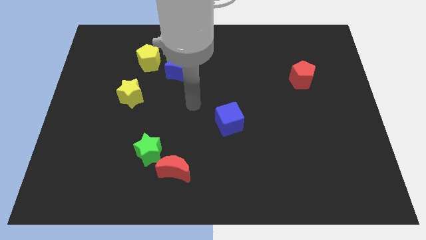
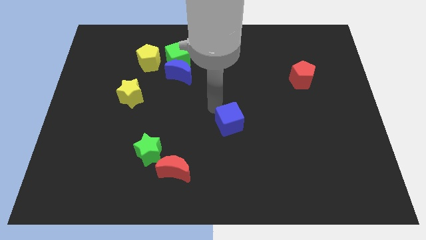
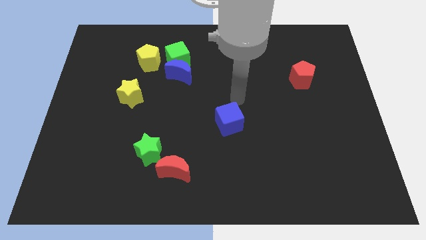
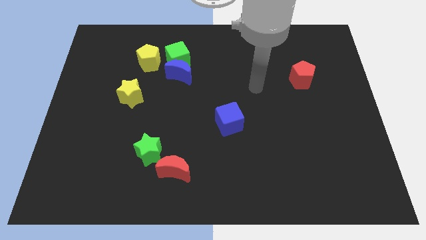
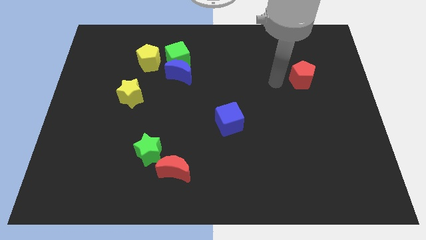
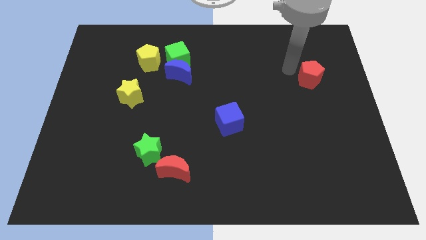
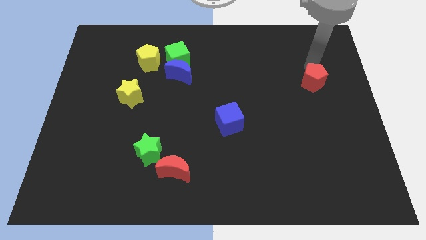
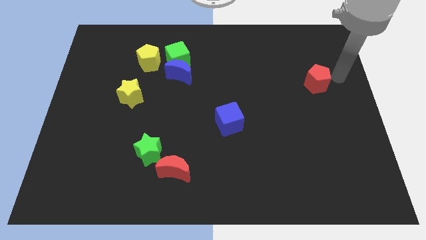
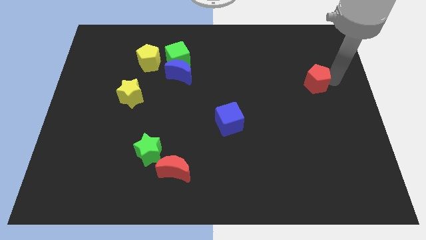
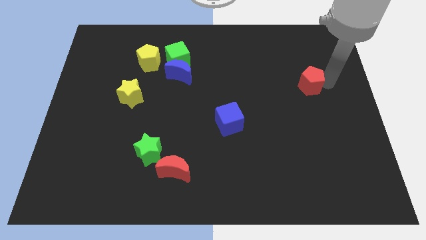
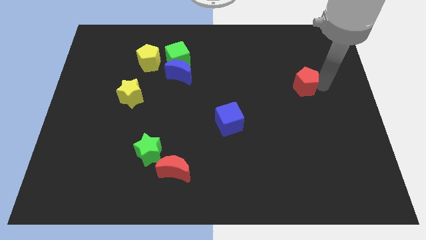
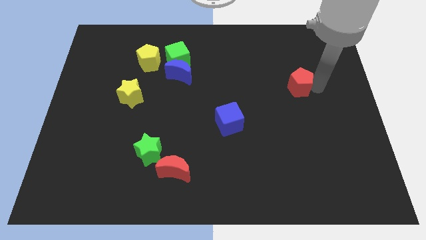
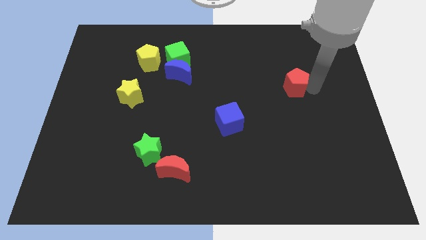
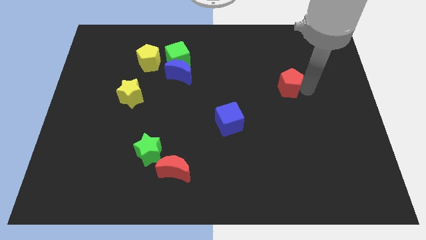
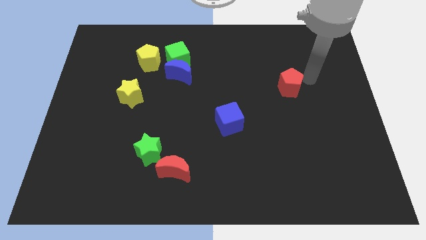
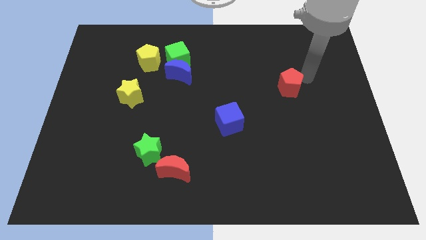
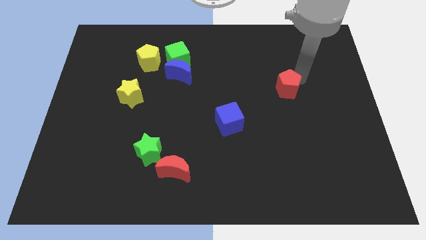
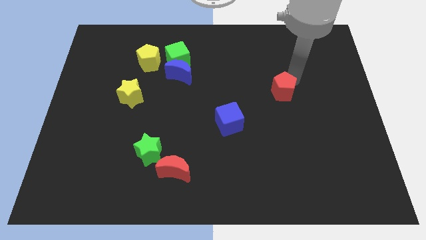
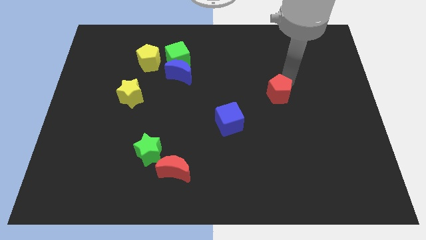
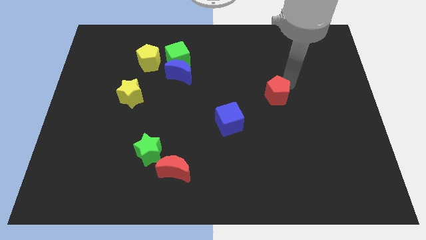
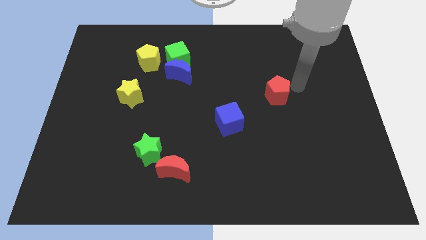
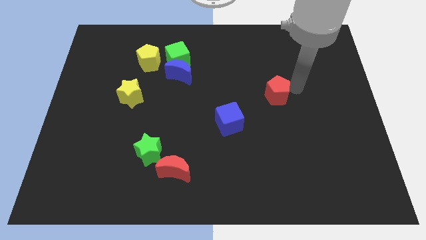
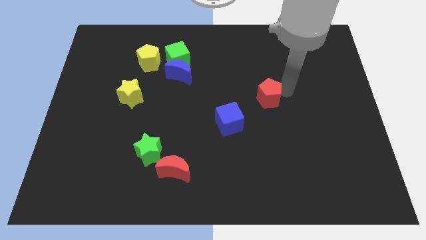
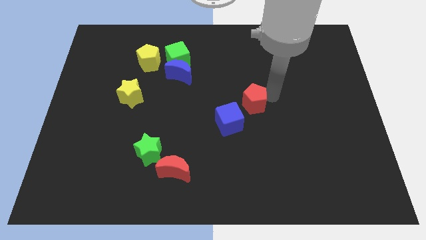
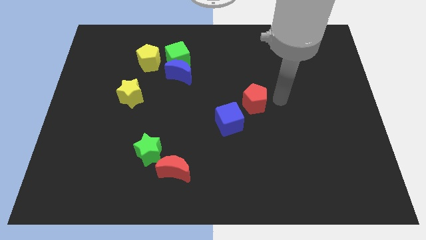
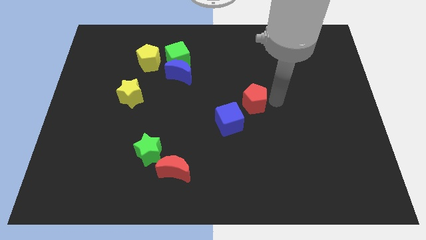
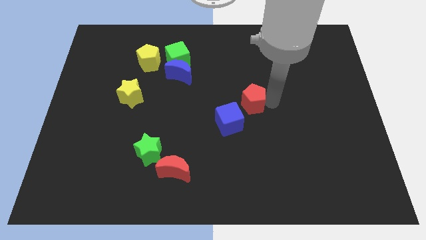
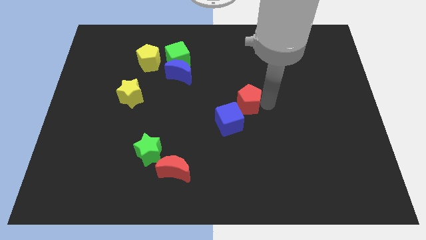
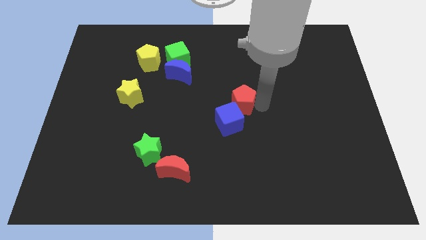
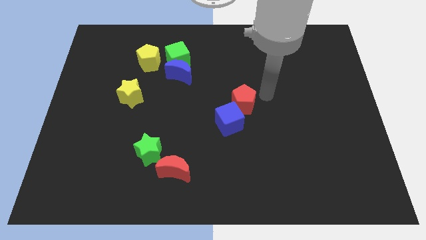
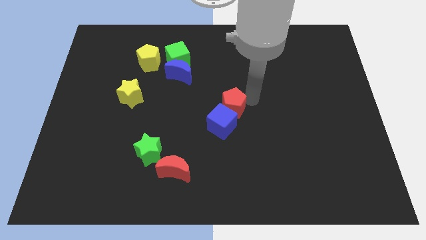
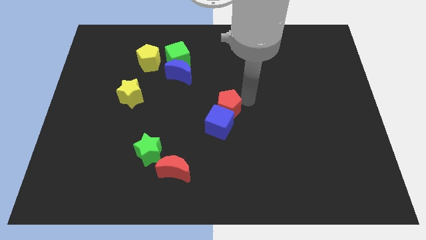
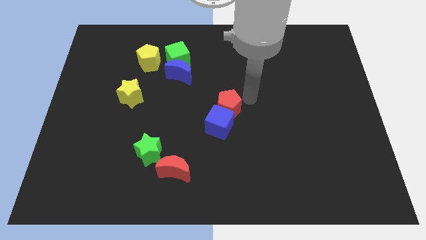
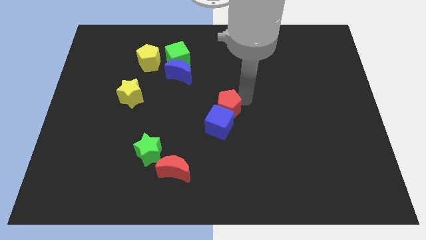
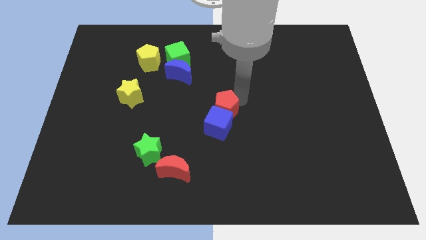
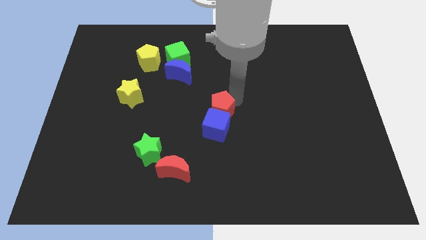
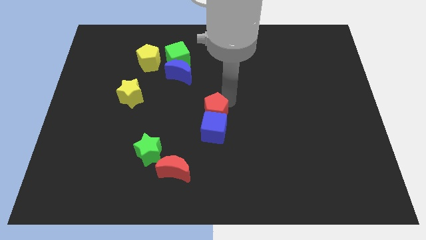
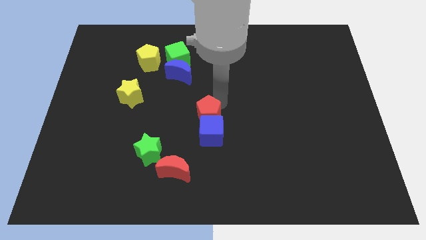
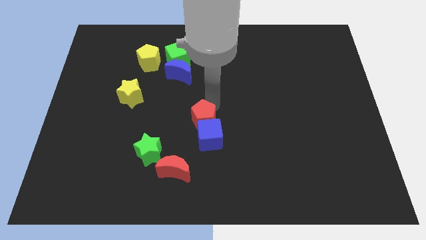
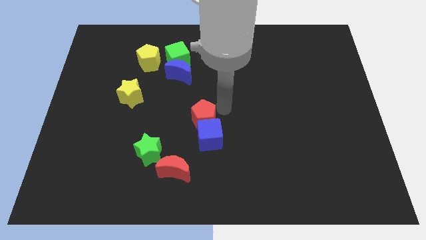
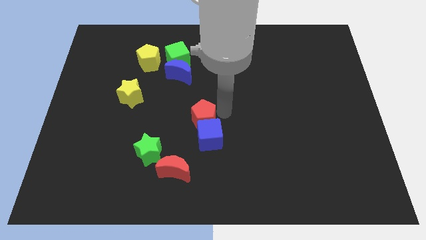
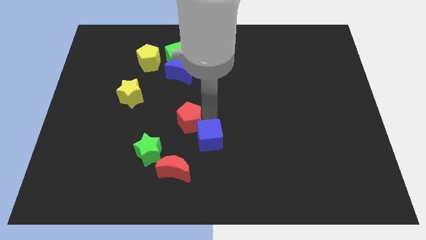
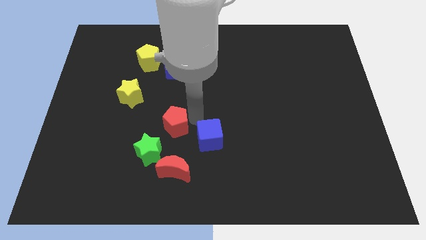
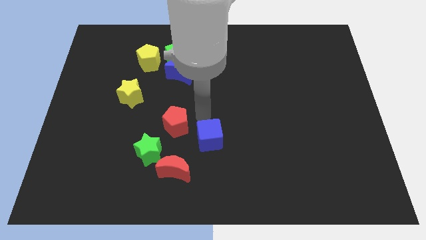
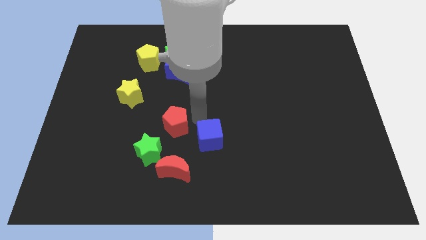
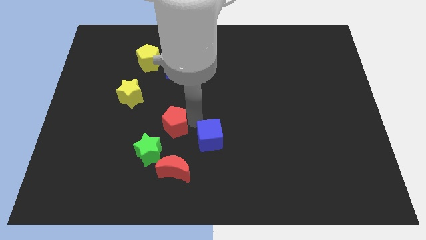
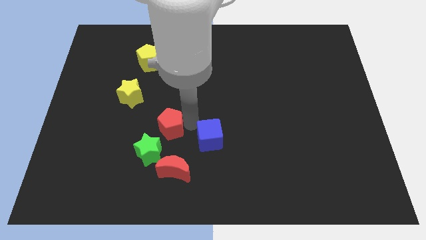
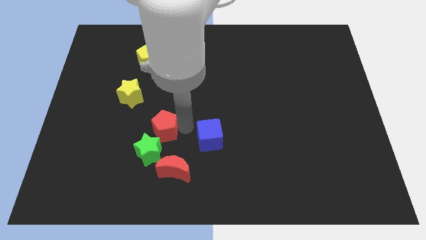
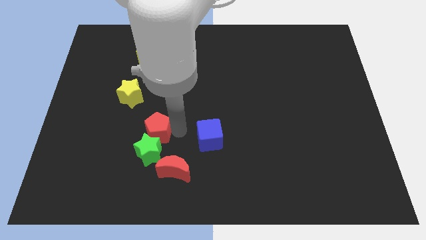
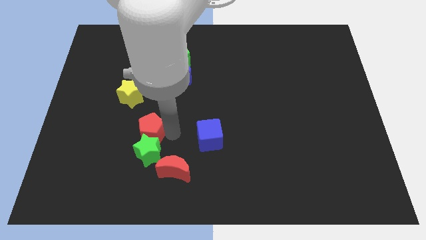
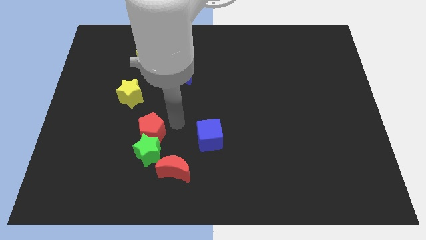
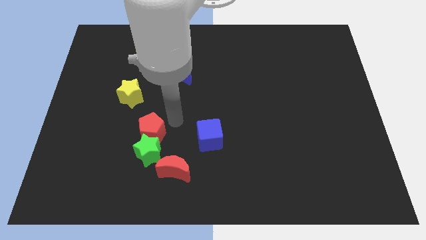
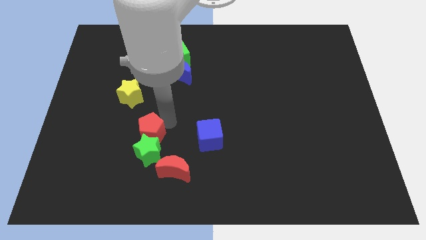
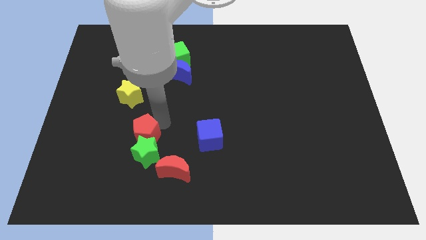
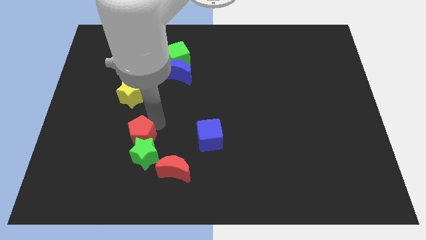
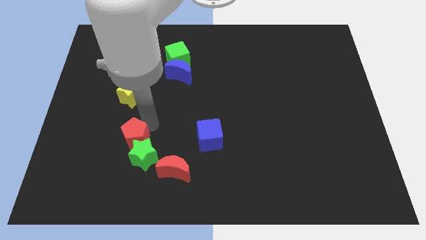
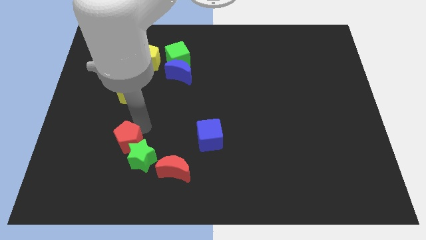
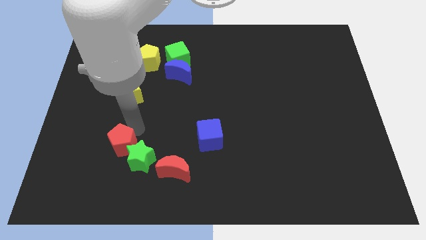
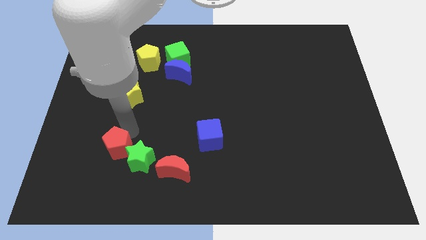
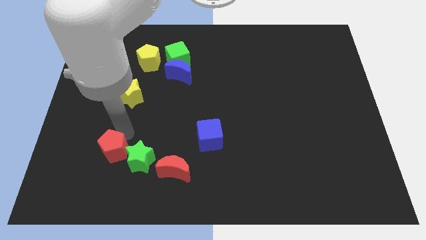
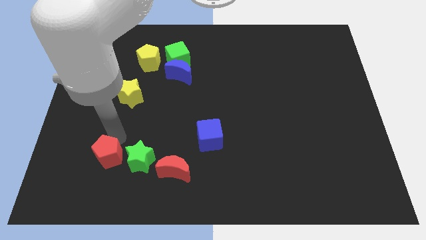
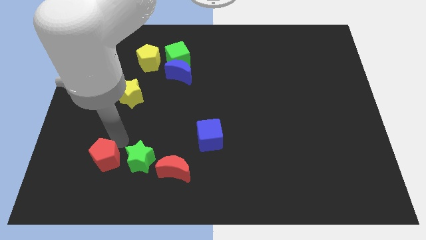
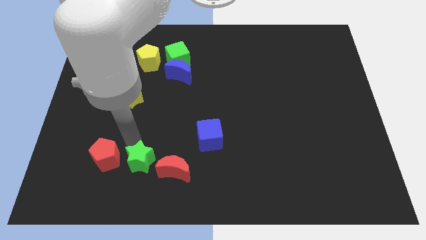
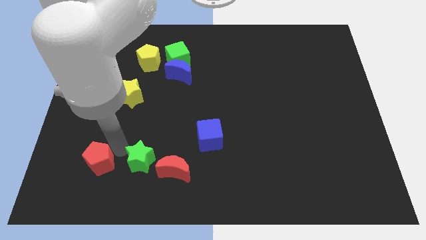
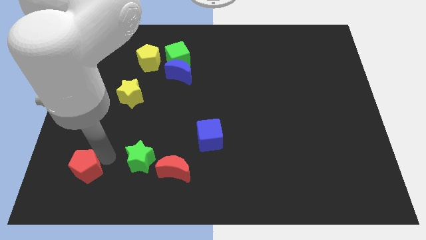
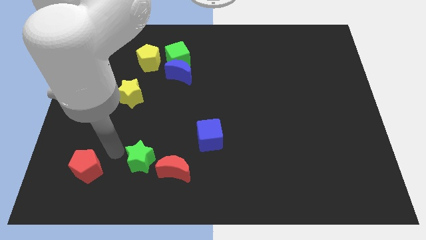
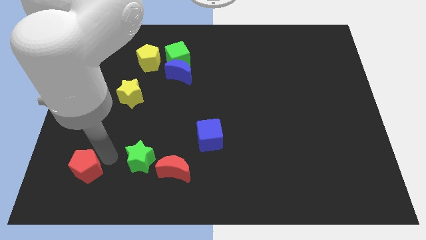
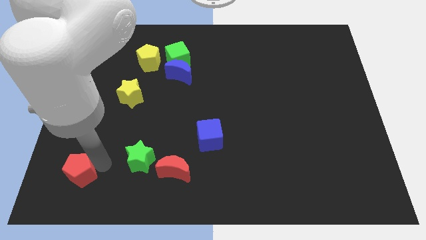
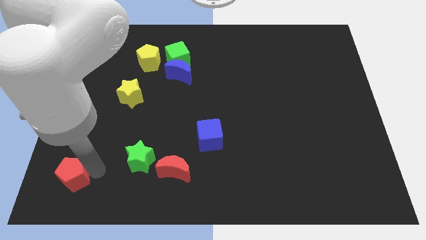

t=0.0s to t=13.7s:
push the red pentagon to the bottom left of the board
